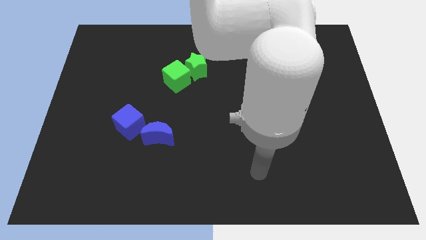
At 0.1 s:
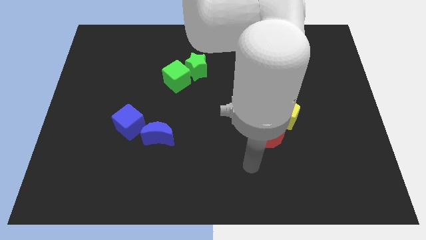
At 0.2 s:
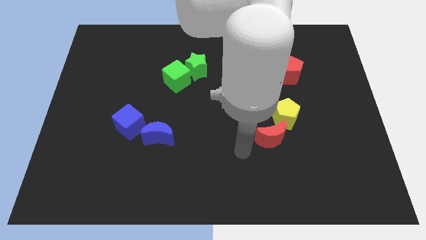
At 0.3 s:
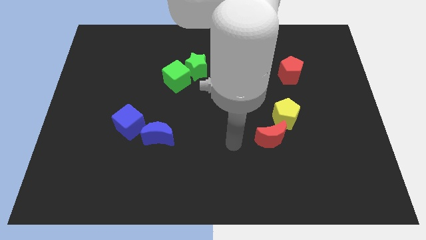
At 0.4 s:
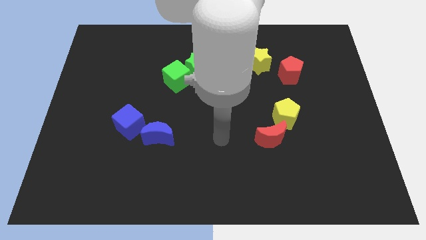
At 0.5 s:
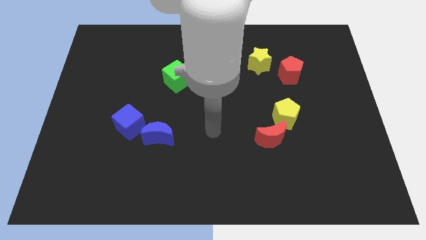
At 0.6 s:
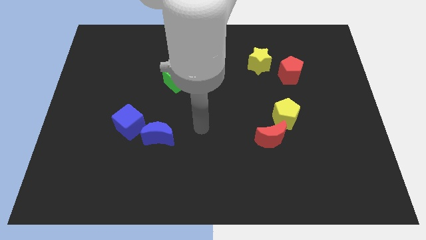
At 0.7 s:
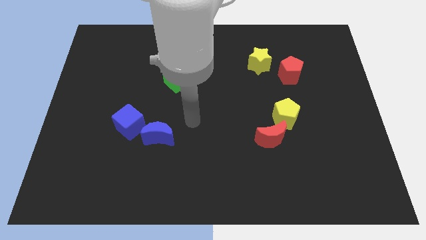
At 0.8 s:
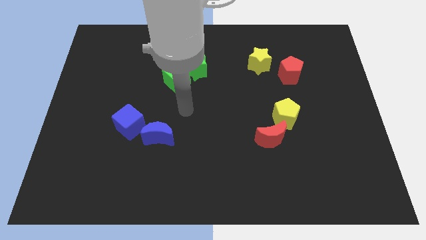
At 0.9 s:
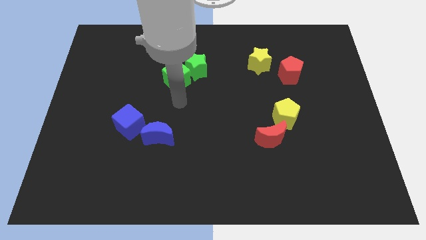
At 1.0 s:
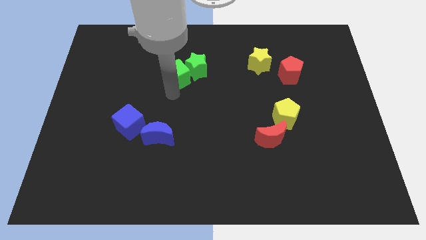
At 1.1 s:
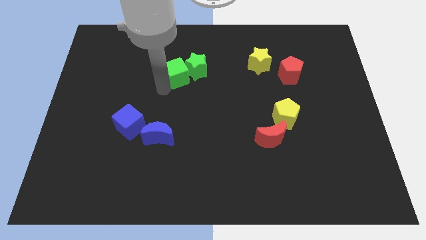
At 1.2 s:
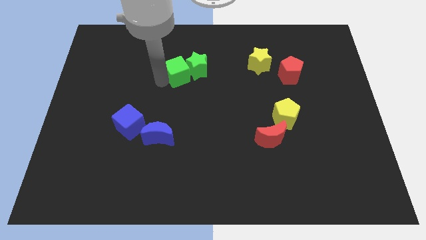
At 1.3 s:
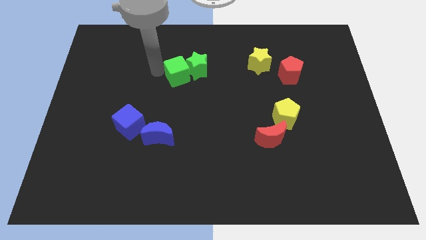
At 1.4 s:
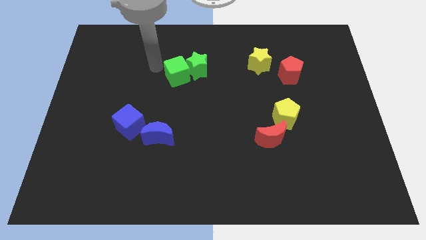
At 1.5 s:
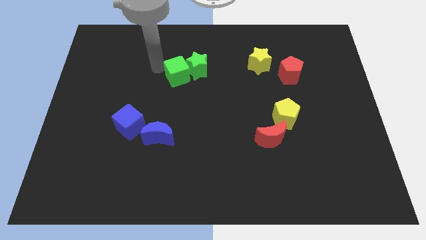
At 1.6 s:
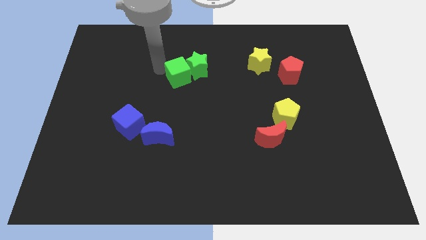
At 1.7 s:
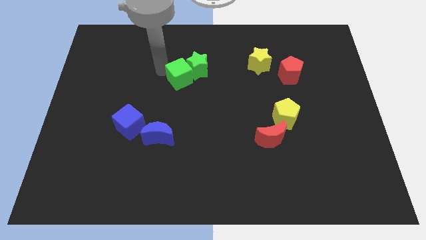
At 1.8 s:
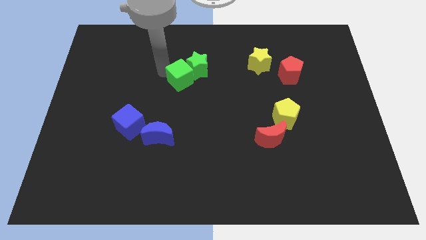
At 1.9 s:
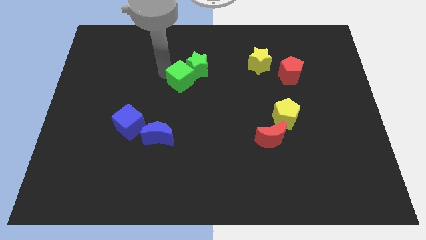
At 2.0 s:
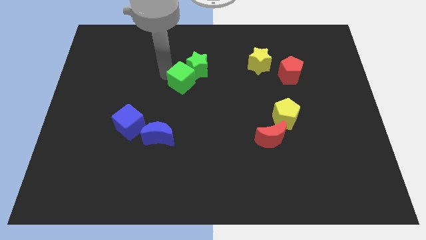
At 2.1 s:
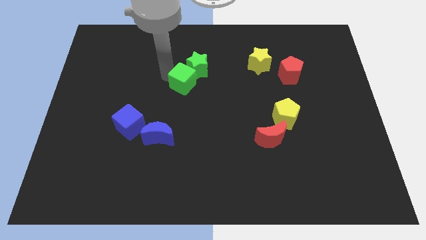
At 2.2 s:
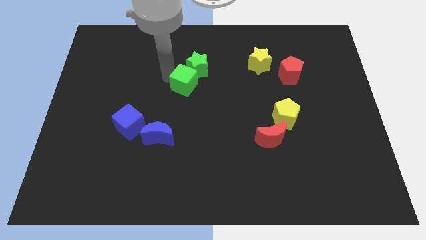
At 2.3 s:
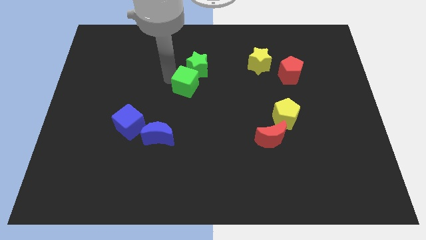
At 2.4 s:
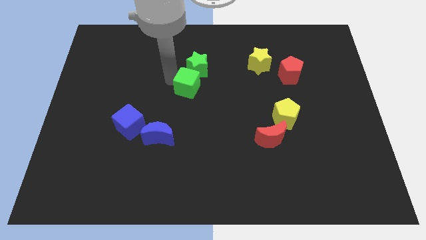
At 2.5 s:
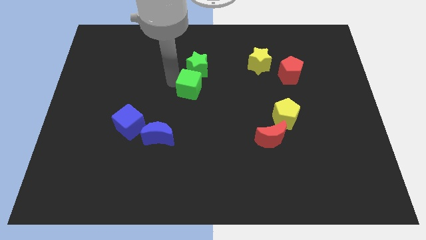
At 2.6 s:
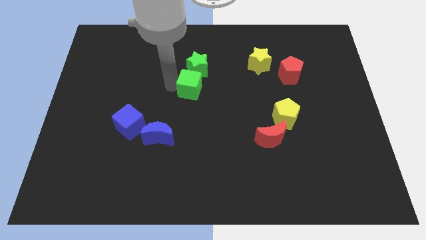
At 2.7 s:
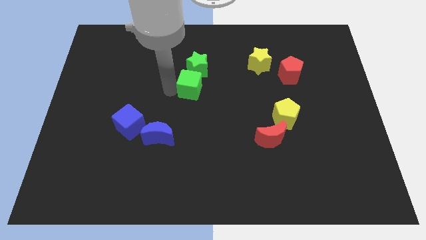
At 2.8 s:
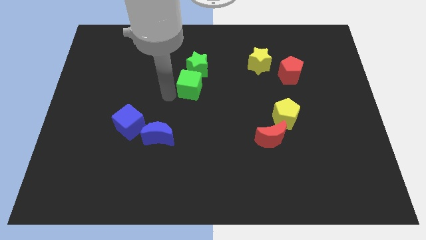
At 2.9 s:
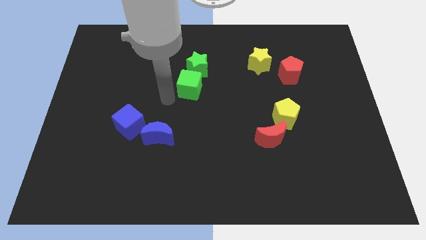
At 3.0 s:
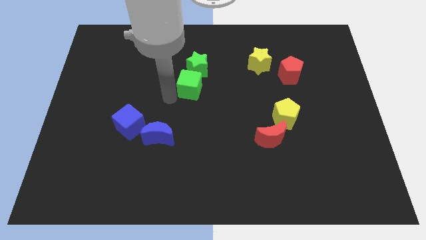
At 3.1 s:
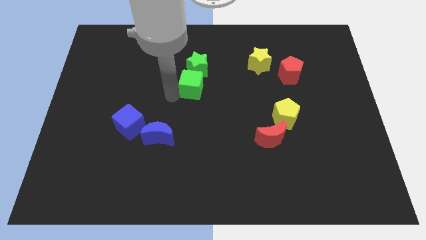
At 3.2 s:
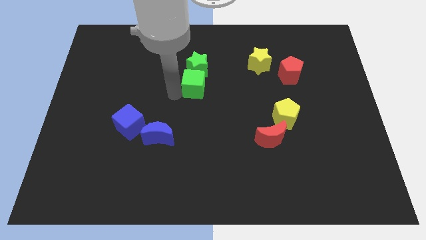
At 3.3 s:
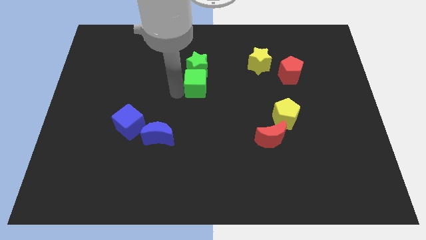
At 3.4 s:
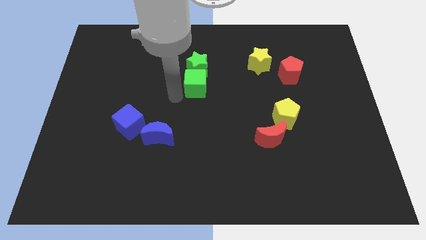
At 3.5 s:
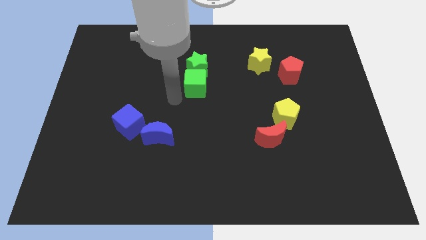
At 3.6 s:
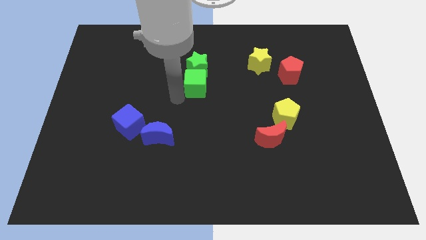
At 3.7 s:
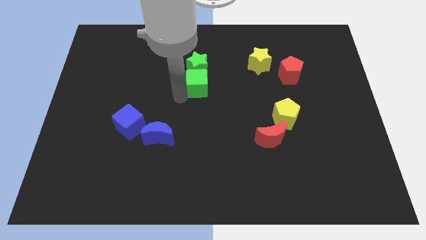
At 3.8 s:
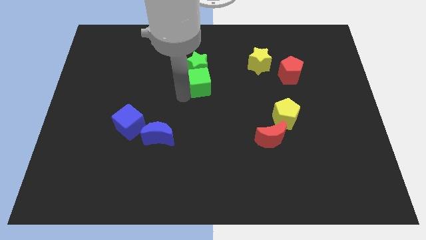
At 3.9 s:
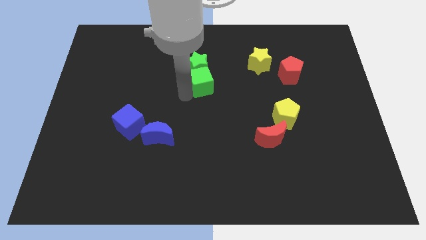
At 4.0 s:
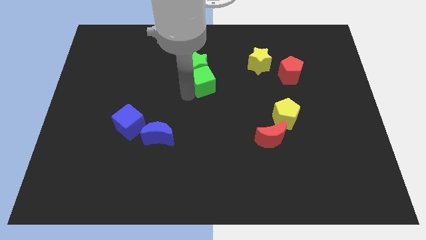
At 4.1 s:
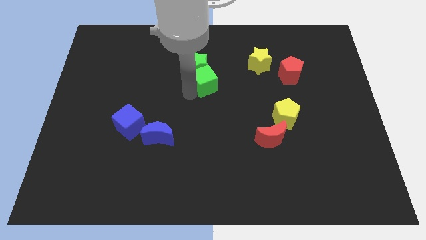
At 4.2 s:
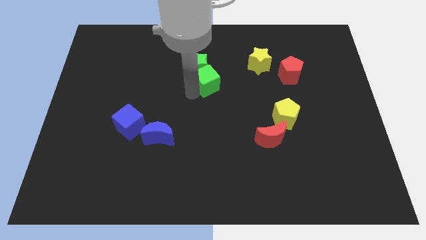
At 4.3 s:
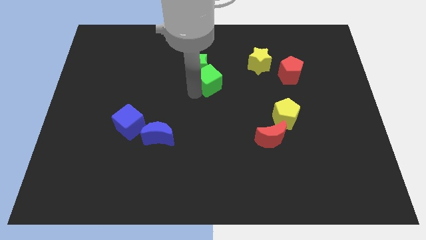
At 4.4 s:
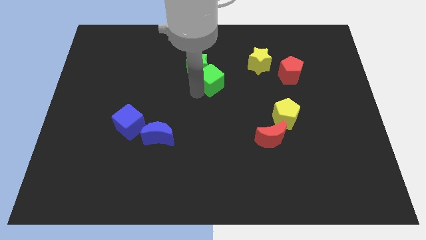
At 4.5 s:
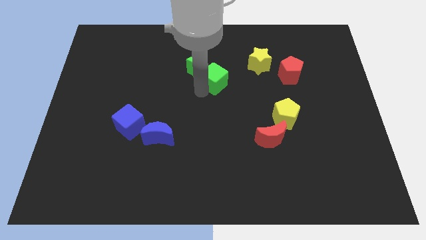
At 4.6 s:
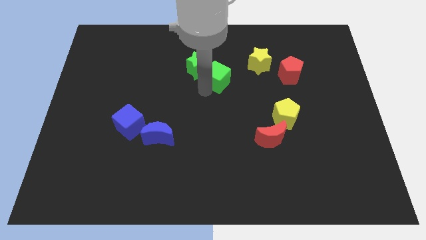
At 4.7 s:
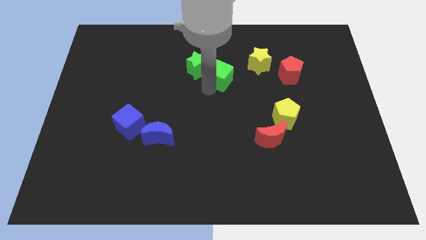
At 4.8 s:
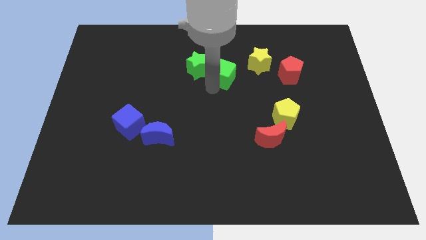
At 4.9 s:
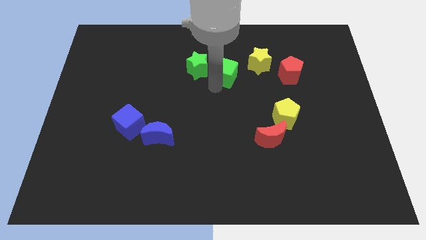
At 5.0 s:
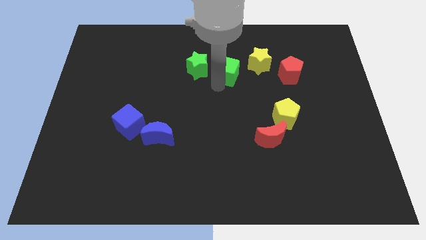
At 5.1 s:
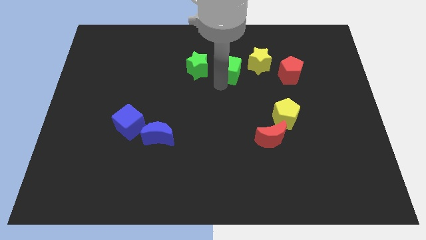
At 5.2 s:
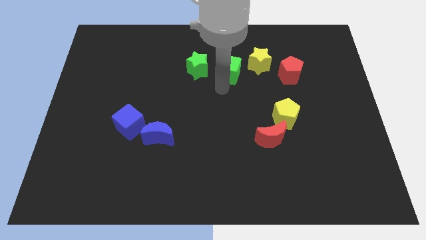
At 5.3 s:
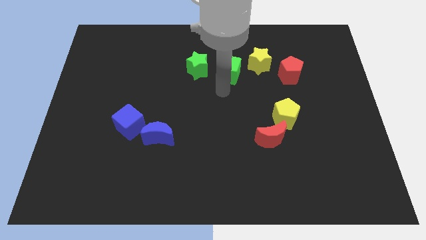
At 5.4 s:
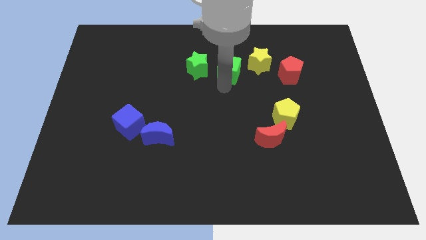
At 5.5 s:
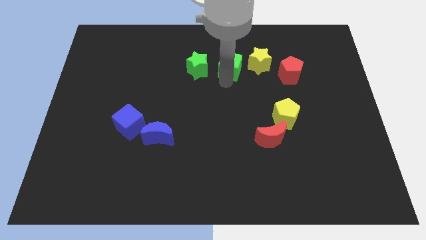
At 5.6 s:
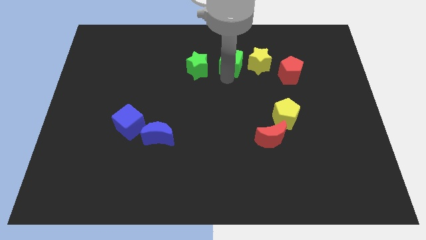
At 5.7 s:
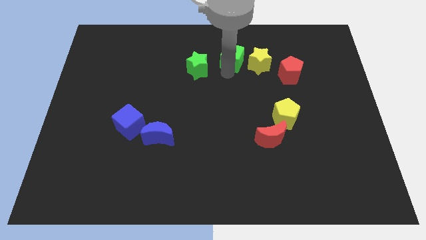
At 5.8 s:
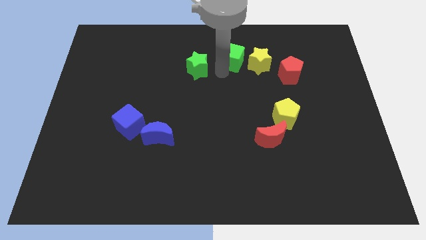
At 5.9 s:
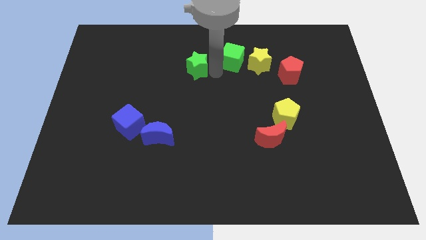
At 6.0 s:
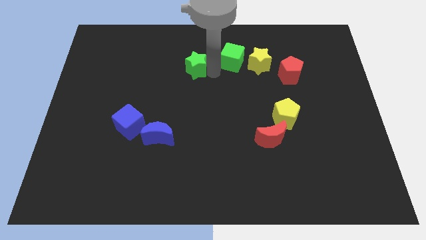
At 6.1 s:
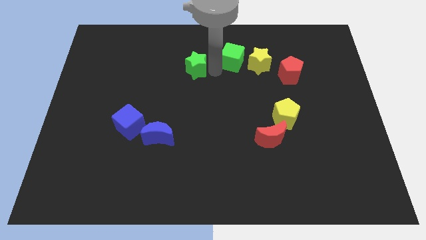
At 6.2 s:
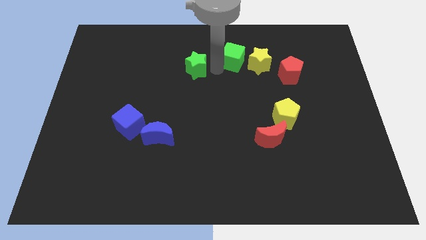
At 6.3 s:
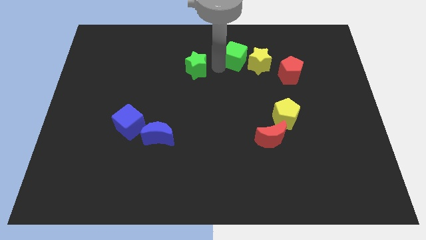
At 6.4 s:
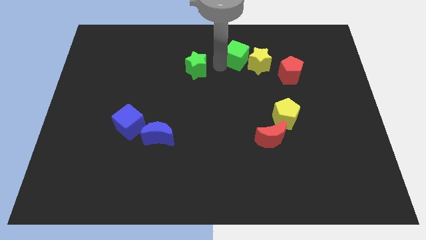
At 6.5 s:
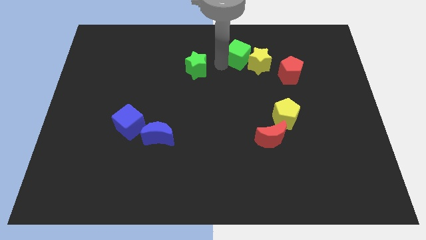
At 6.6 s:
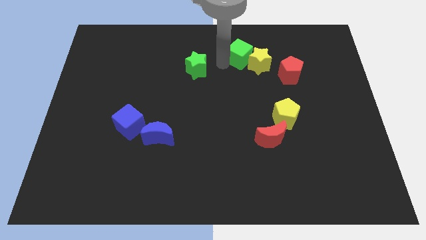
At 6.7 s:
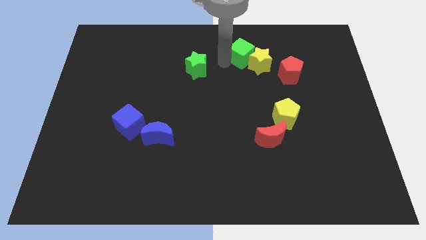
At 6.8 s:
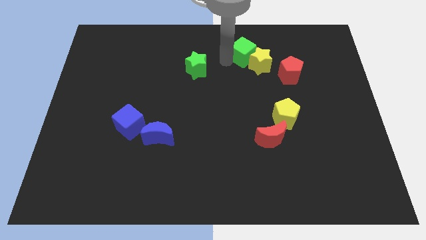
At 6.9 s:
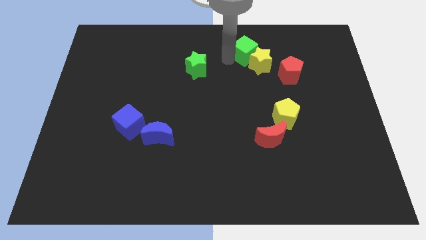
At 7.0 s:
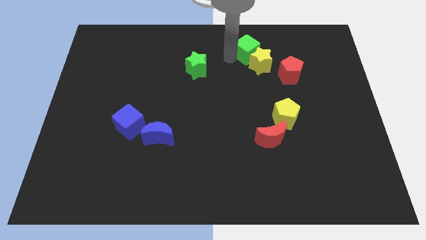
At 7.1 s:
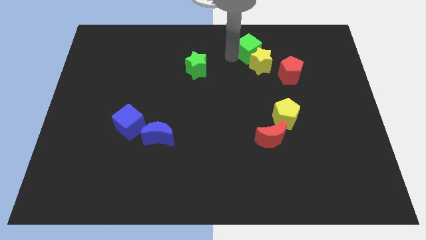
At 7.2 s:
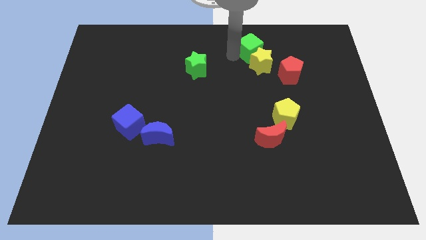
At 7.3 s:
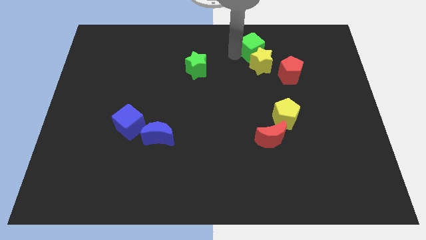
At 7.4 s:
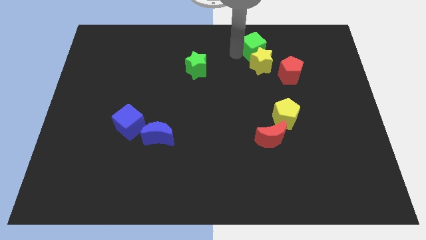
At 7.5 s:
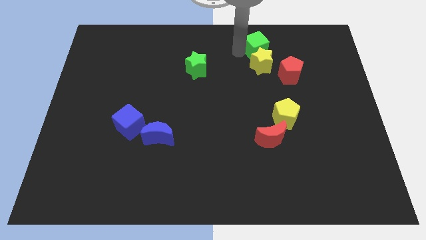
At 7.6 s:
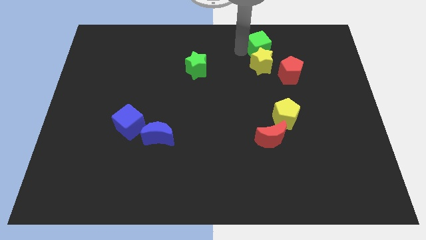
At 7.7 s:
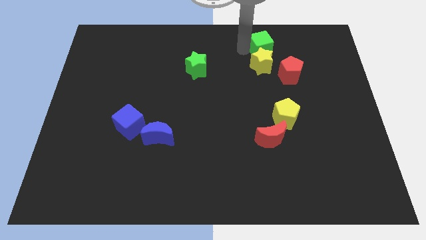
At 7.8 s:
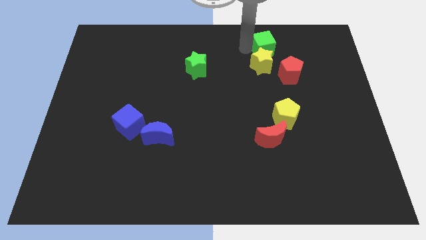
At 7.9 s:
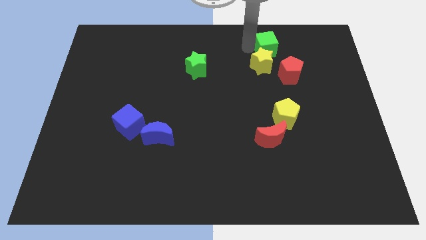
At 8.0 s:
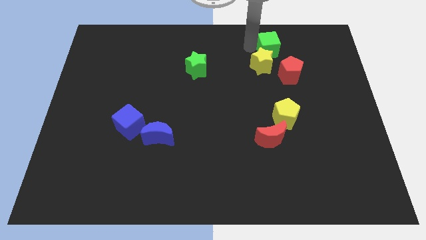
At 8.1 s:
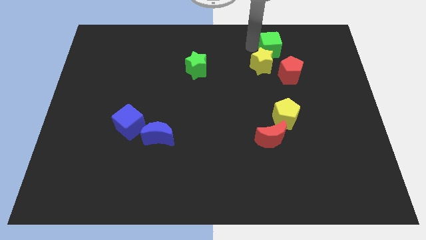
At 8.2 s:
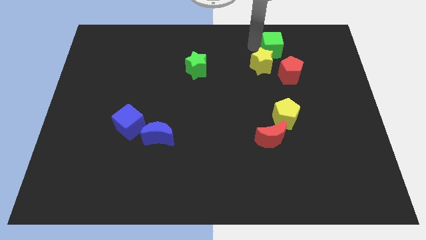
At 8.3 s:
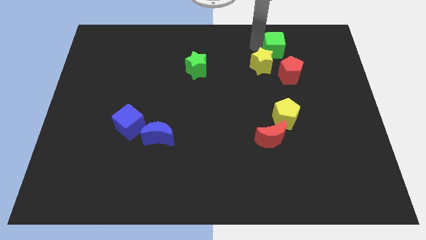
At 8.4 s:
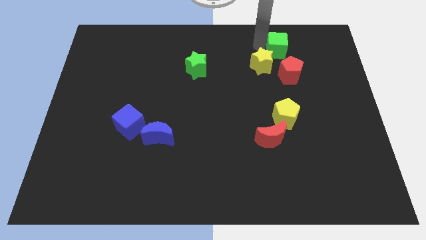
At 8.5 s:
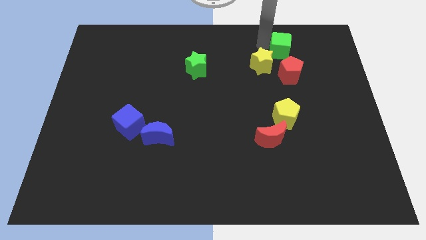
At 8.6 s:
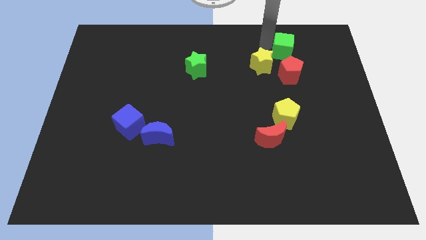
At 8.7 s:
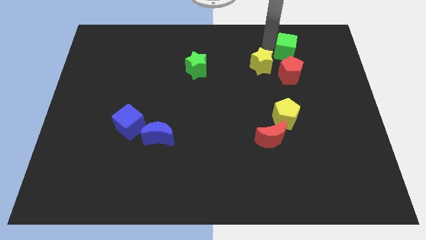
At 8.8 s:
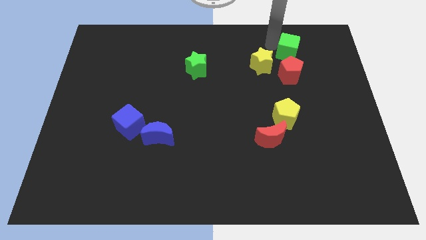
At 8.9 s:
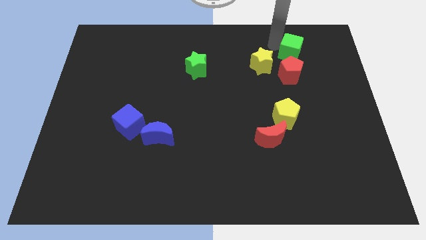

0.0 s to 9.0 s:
slide the green cube to the top right of the red pentagon
